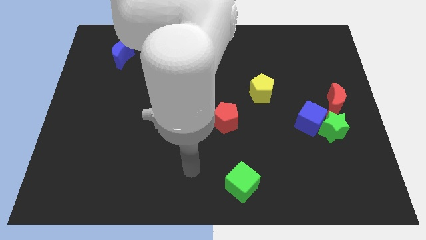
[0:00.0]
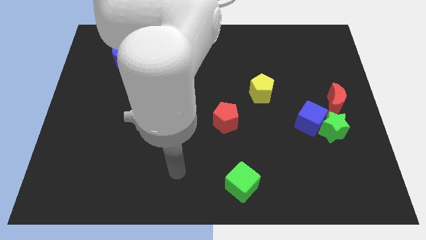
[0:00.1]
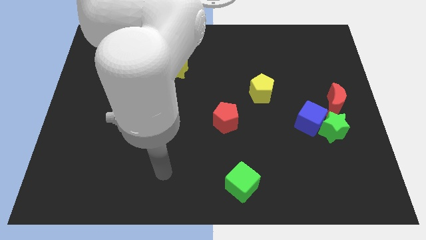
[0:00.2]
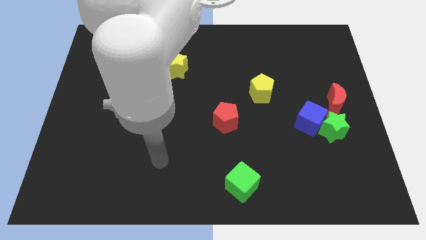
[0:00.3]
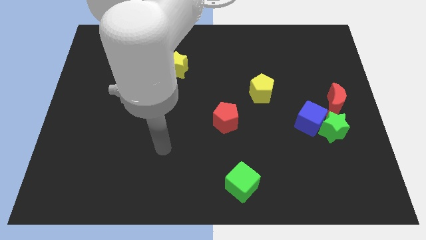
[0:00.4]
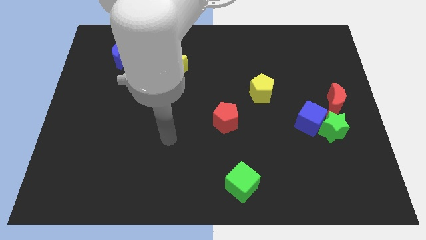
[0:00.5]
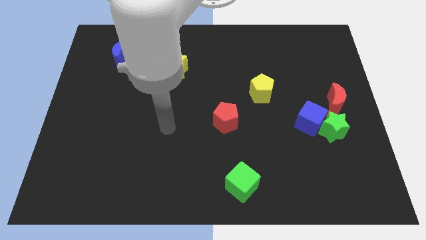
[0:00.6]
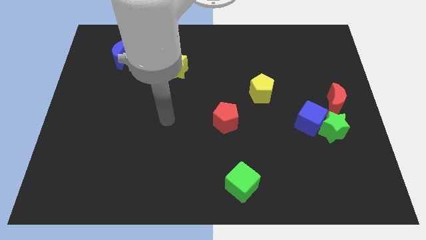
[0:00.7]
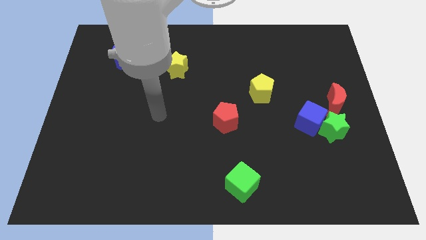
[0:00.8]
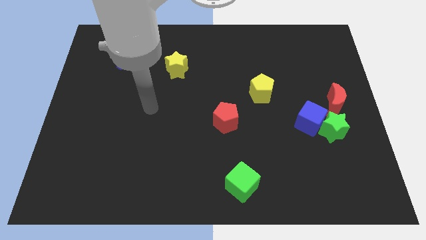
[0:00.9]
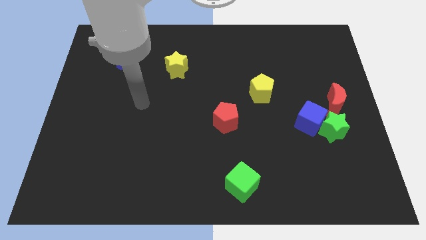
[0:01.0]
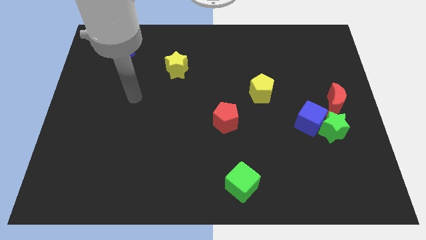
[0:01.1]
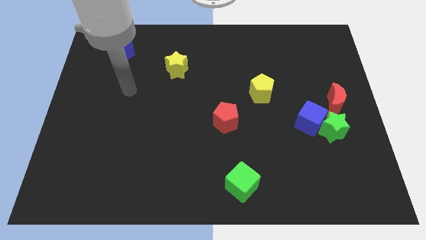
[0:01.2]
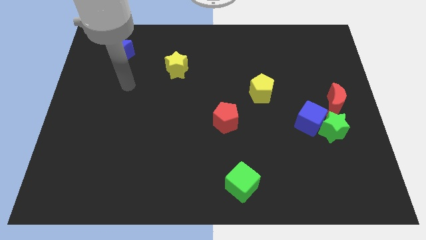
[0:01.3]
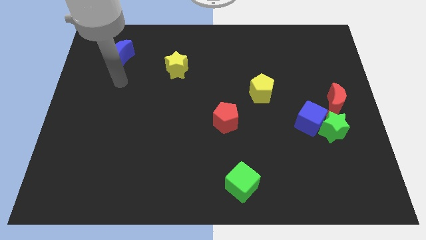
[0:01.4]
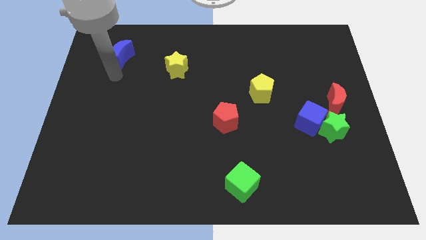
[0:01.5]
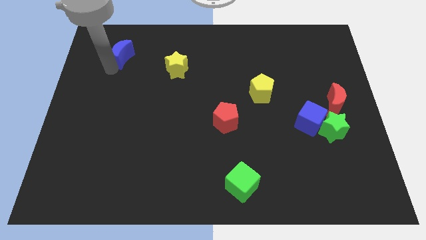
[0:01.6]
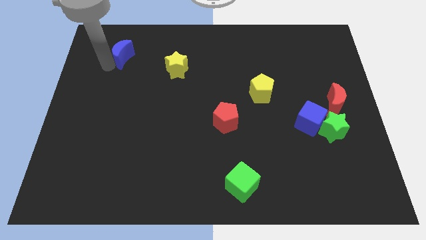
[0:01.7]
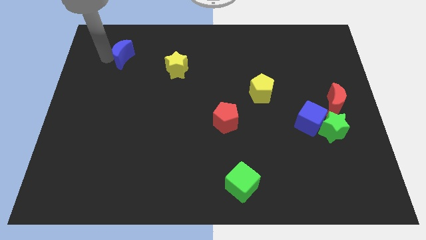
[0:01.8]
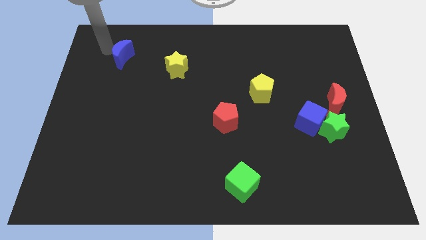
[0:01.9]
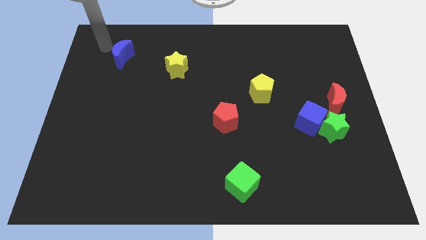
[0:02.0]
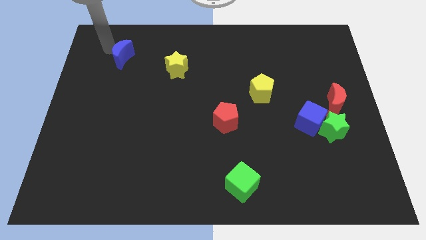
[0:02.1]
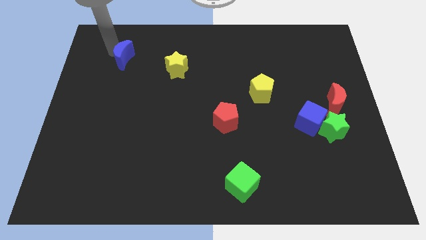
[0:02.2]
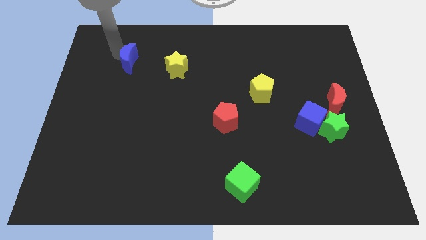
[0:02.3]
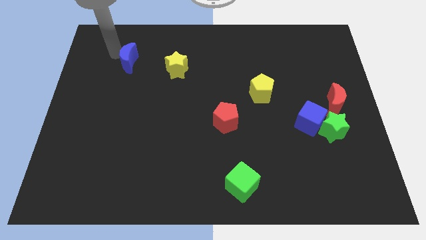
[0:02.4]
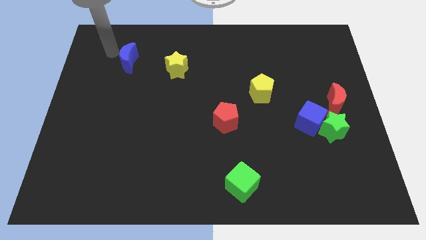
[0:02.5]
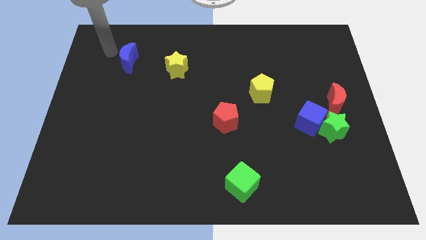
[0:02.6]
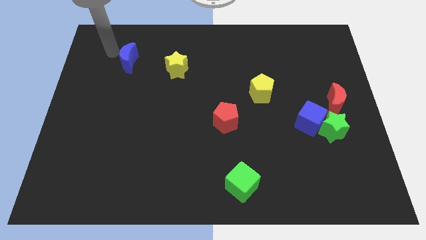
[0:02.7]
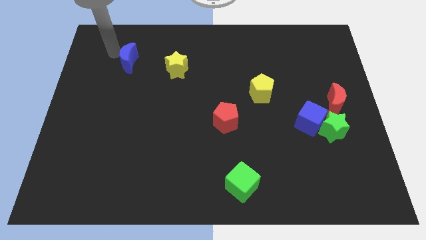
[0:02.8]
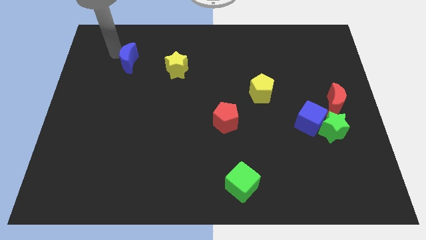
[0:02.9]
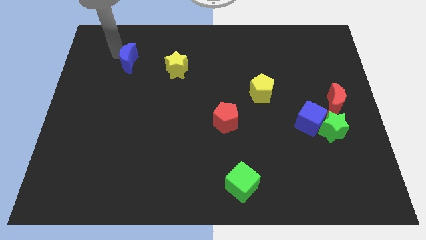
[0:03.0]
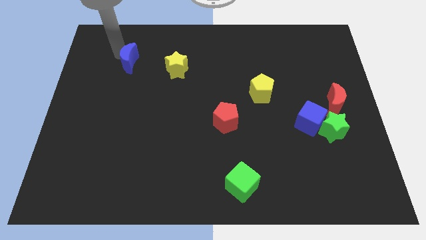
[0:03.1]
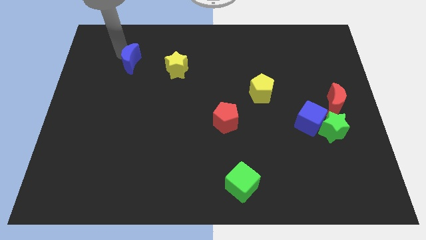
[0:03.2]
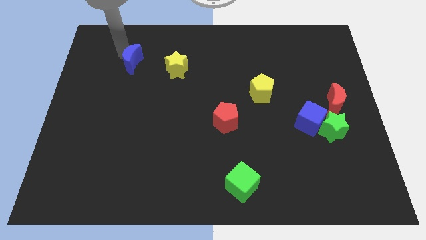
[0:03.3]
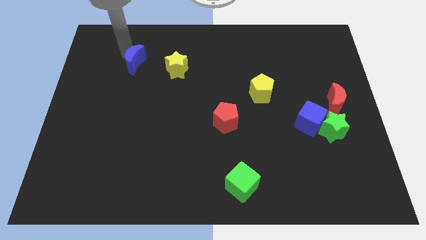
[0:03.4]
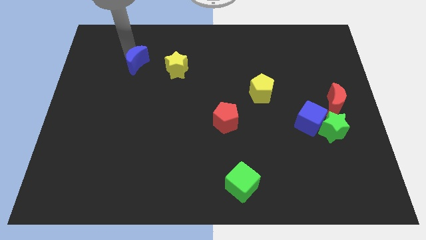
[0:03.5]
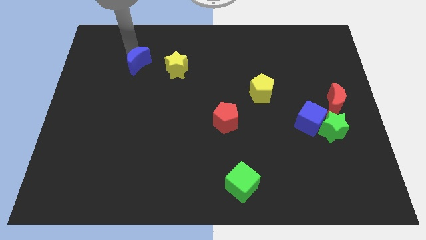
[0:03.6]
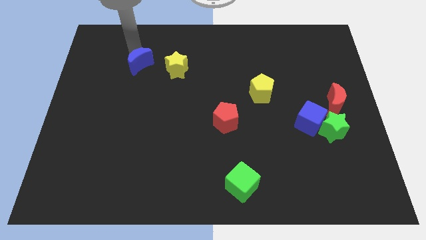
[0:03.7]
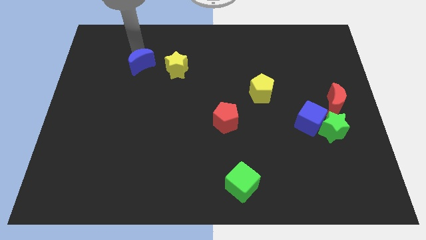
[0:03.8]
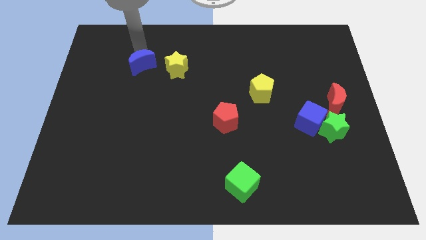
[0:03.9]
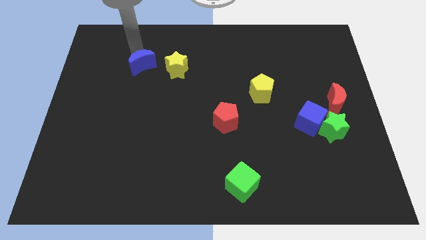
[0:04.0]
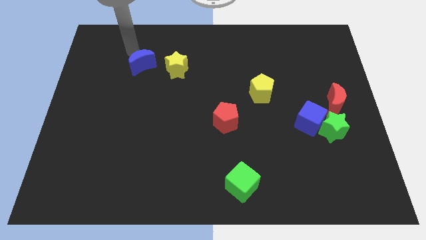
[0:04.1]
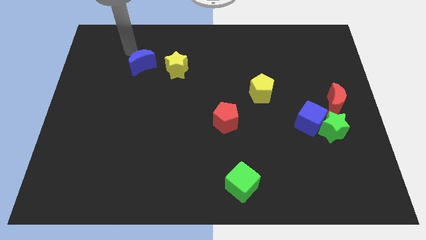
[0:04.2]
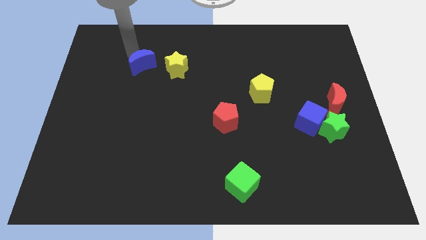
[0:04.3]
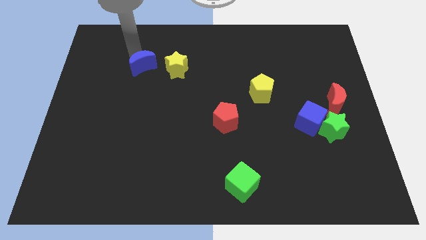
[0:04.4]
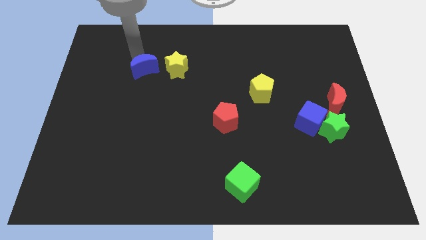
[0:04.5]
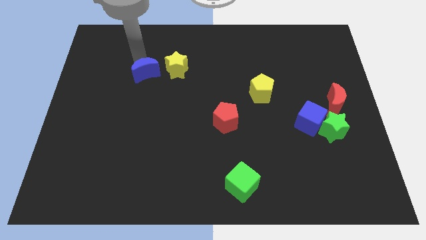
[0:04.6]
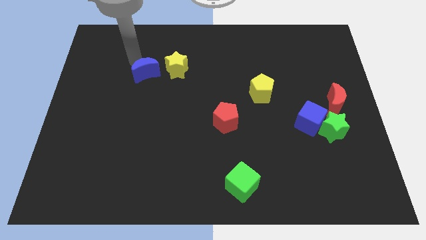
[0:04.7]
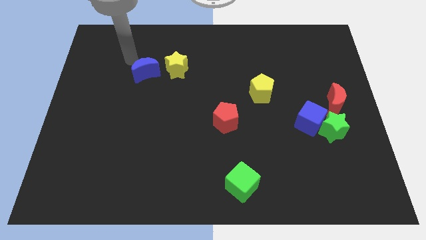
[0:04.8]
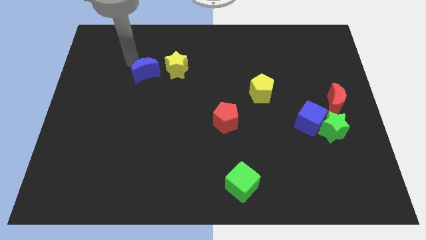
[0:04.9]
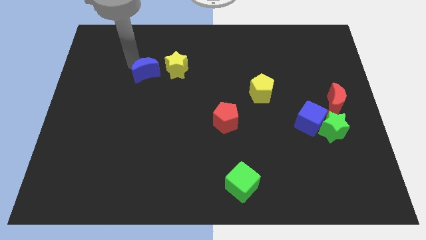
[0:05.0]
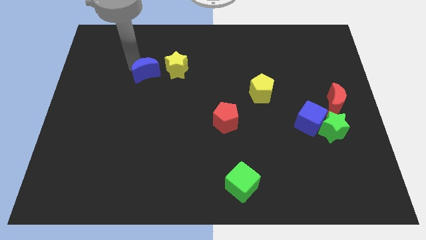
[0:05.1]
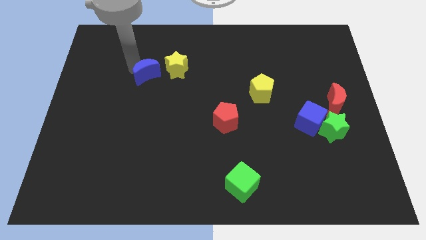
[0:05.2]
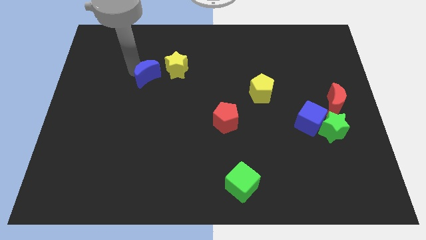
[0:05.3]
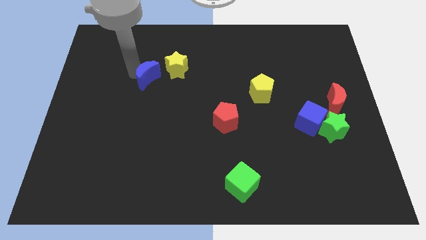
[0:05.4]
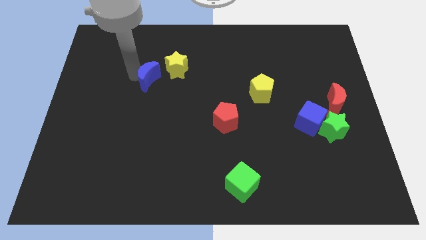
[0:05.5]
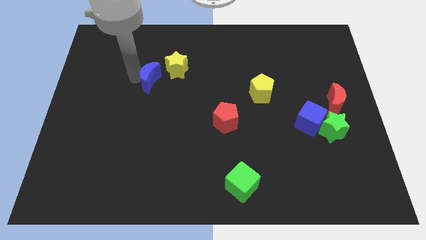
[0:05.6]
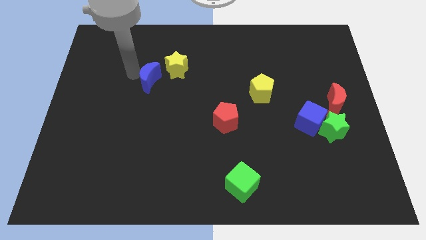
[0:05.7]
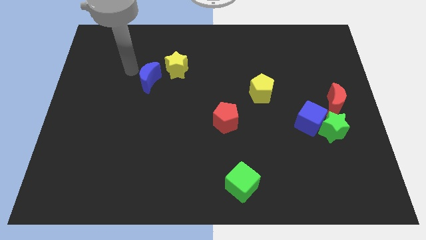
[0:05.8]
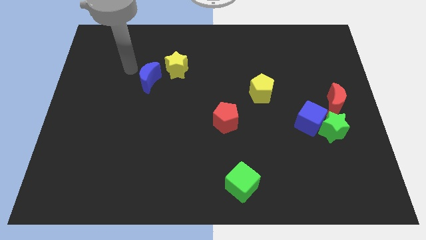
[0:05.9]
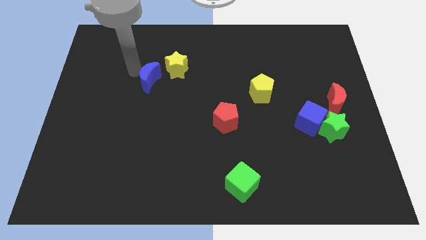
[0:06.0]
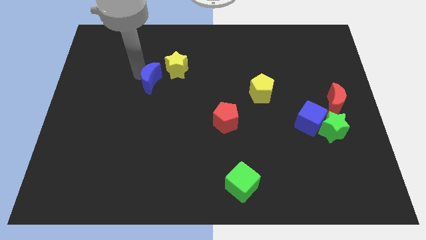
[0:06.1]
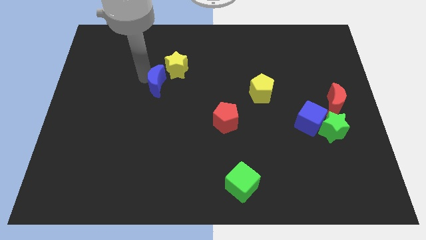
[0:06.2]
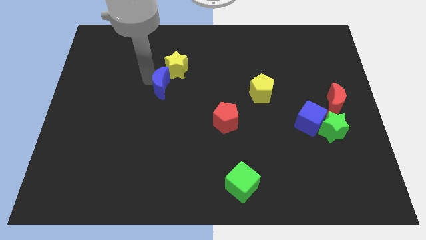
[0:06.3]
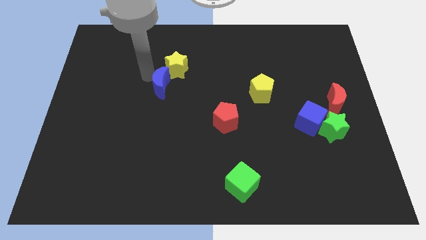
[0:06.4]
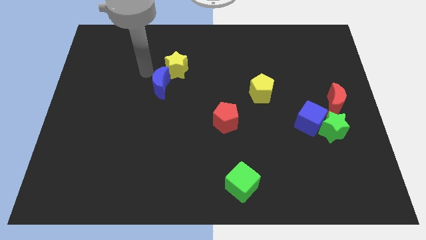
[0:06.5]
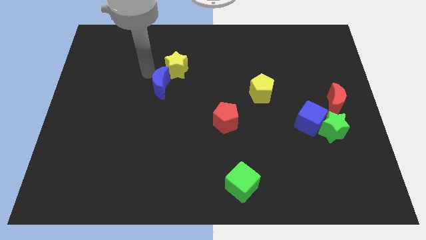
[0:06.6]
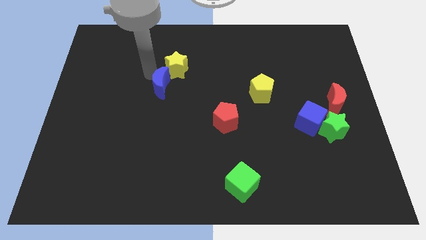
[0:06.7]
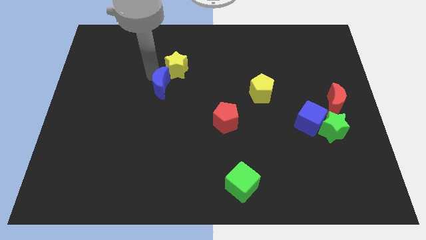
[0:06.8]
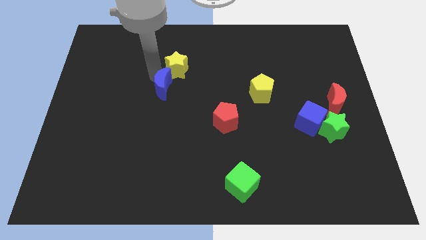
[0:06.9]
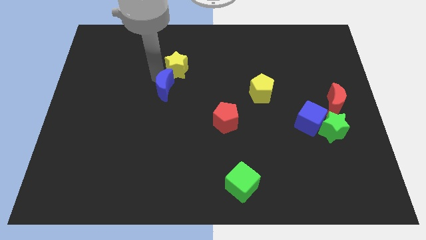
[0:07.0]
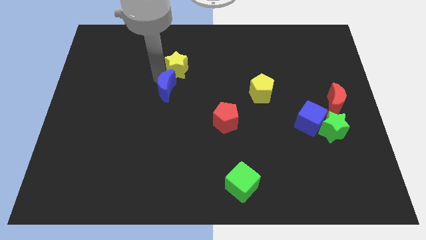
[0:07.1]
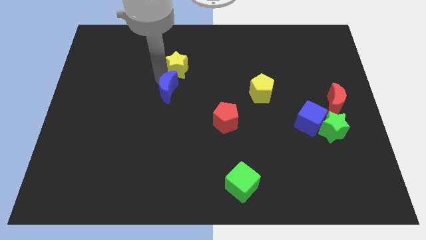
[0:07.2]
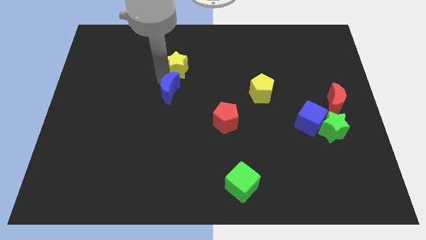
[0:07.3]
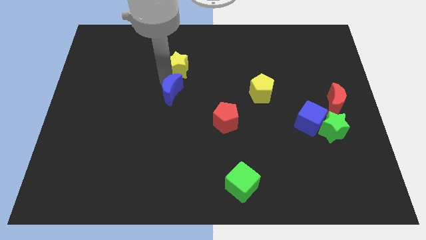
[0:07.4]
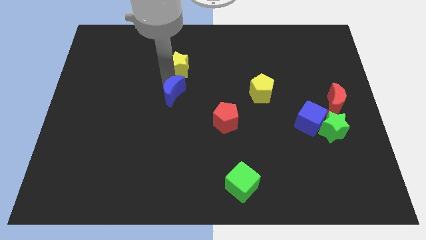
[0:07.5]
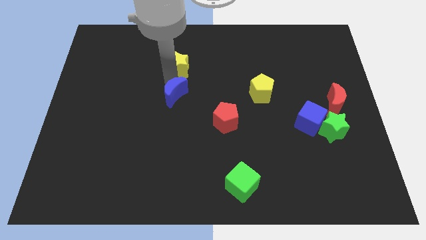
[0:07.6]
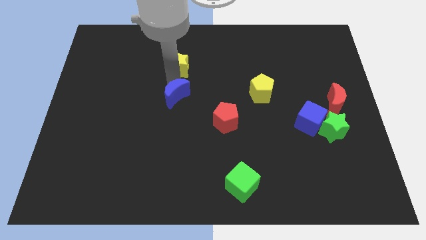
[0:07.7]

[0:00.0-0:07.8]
slide the blue moon downwards and to the right
